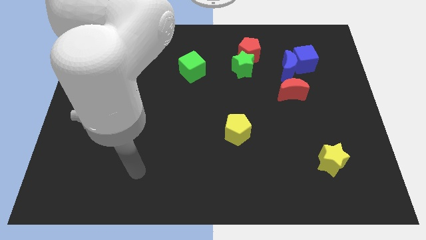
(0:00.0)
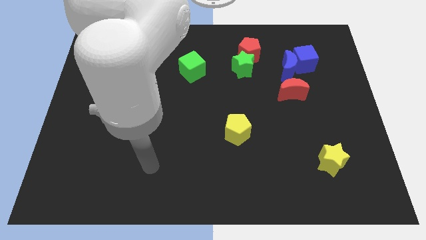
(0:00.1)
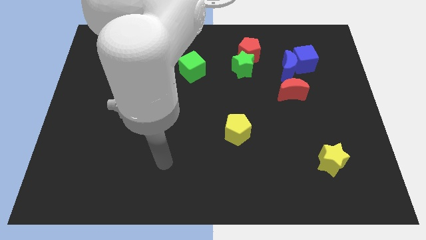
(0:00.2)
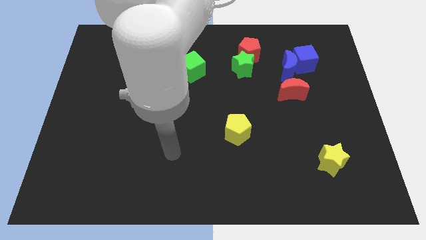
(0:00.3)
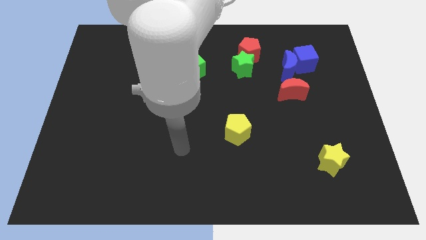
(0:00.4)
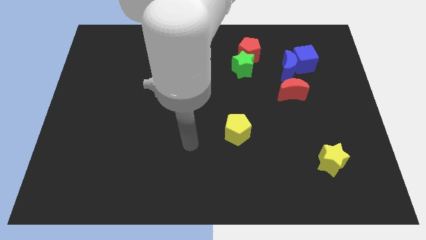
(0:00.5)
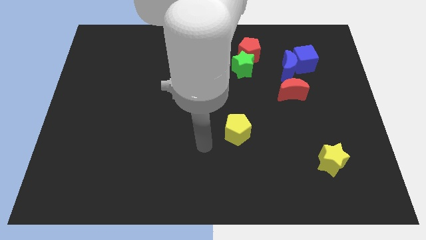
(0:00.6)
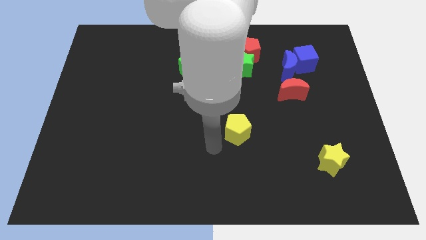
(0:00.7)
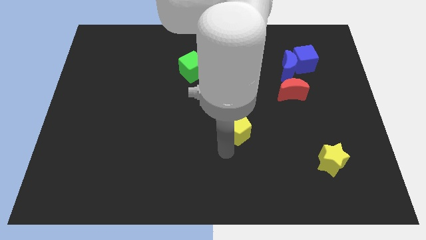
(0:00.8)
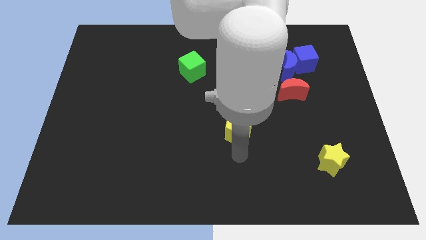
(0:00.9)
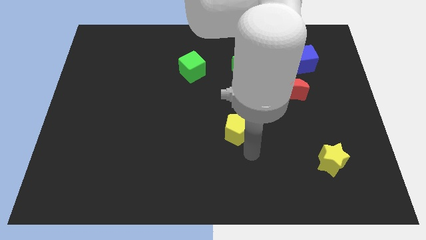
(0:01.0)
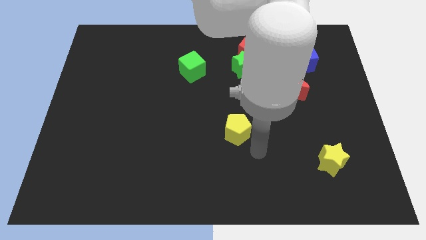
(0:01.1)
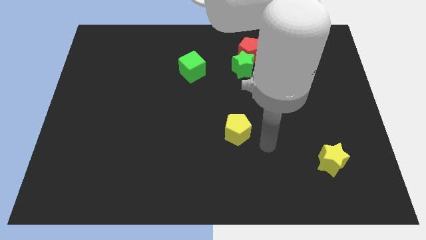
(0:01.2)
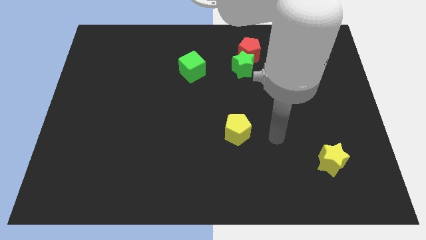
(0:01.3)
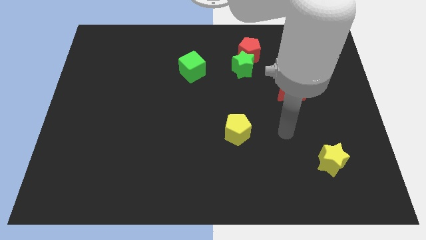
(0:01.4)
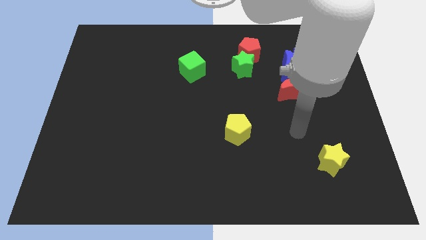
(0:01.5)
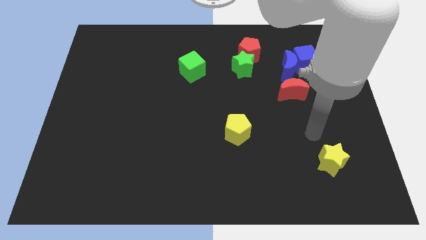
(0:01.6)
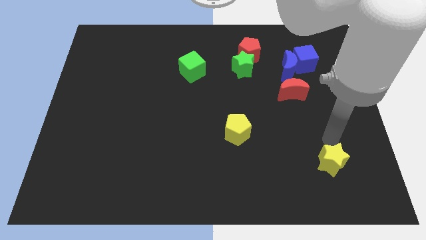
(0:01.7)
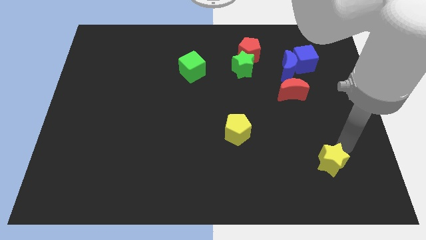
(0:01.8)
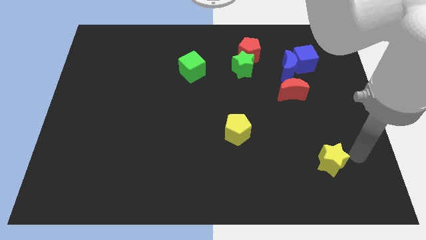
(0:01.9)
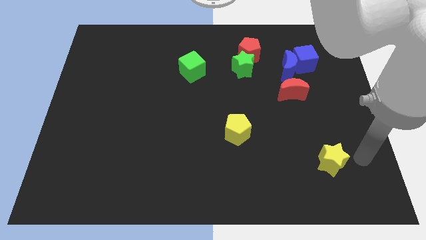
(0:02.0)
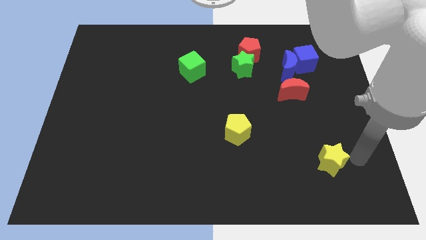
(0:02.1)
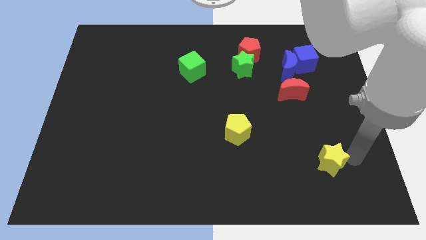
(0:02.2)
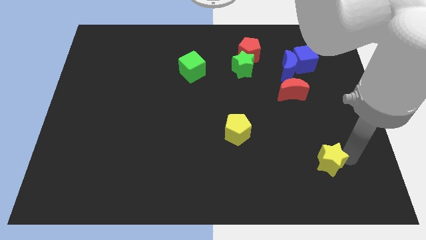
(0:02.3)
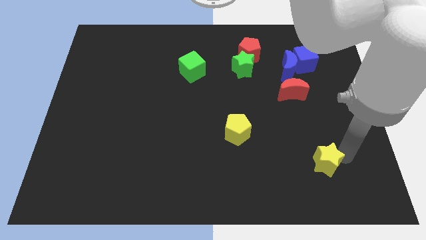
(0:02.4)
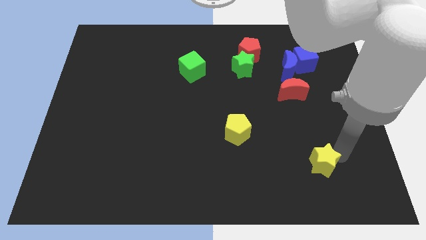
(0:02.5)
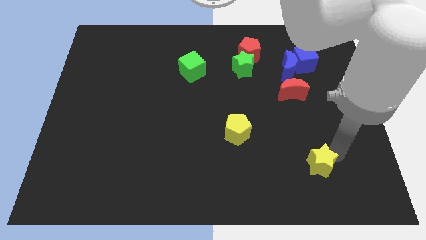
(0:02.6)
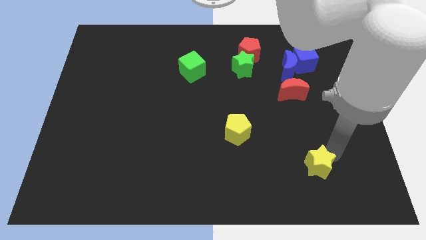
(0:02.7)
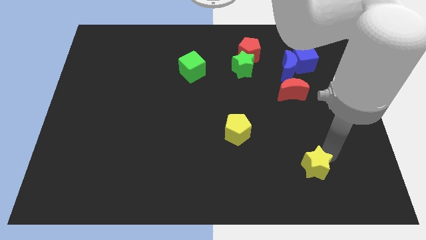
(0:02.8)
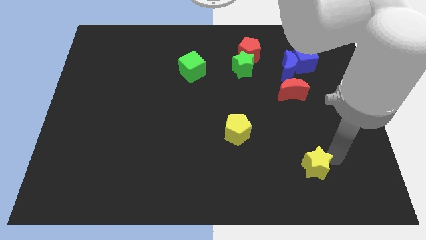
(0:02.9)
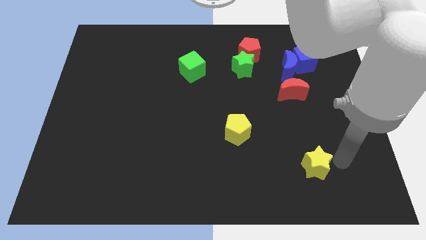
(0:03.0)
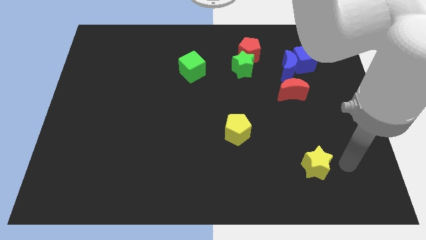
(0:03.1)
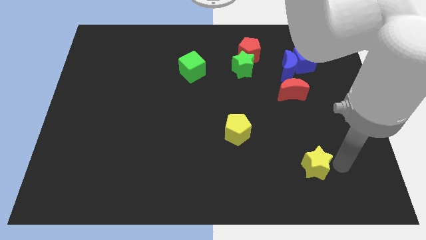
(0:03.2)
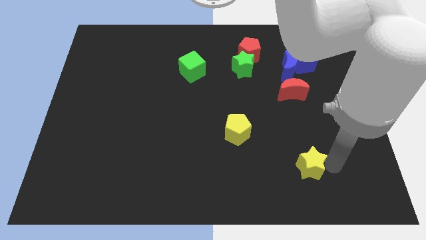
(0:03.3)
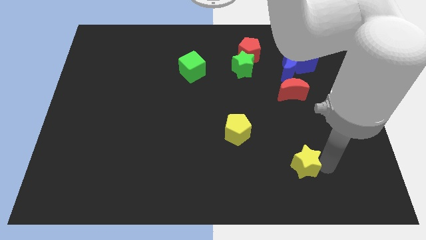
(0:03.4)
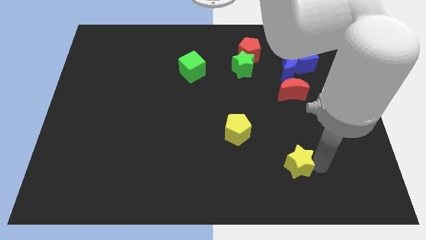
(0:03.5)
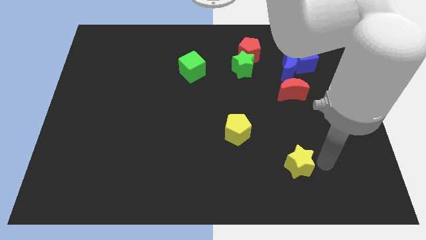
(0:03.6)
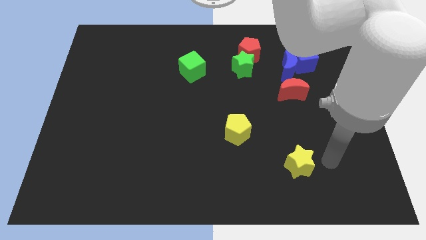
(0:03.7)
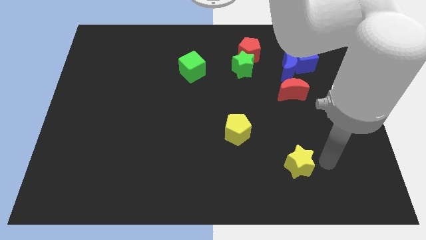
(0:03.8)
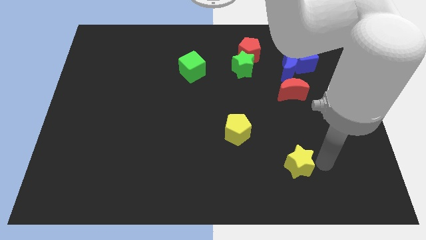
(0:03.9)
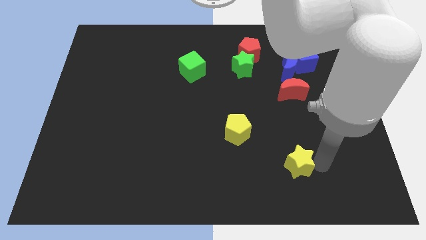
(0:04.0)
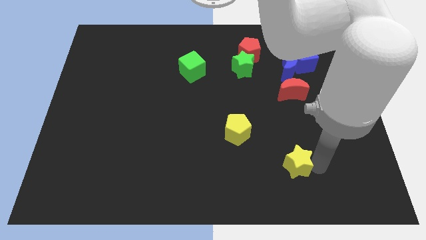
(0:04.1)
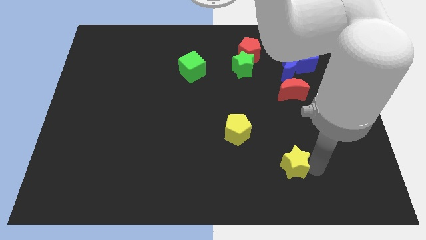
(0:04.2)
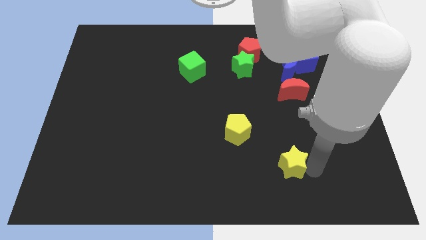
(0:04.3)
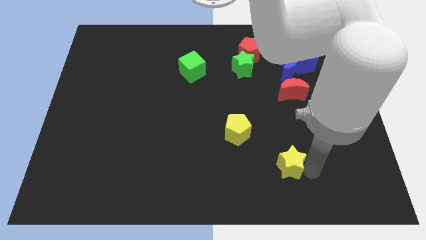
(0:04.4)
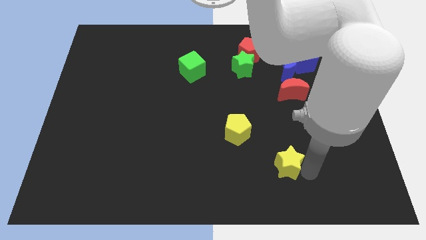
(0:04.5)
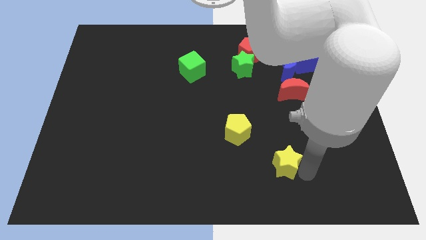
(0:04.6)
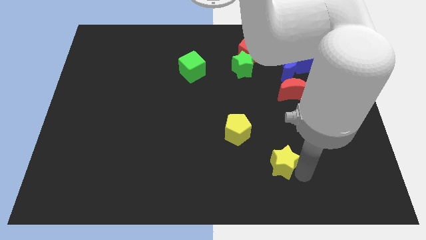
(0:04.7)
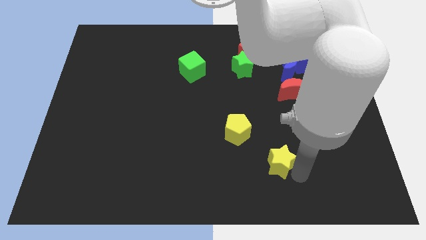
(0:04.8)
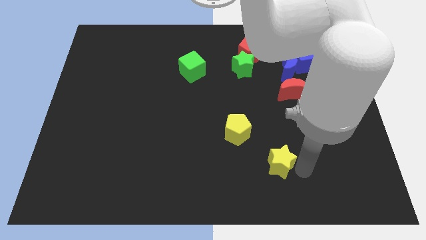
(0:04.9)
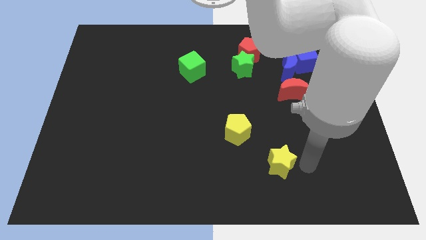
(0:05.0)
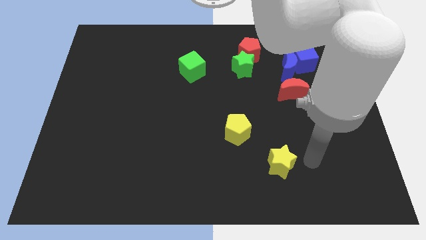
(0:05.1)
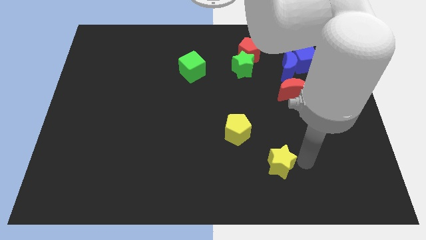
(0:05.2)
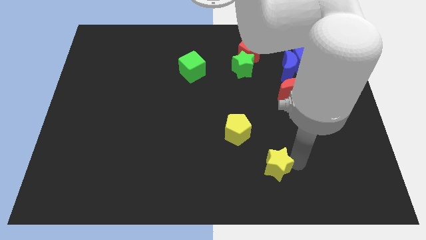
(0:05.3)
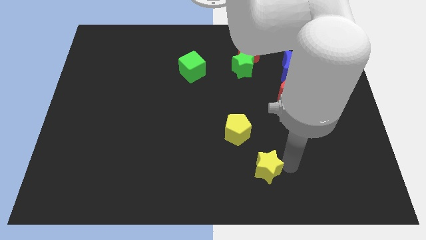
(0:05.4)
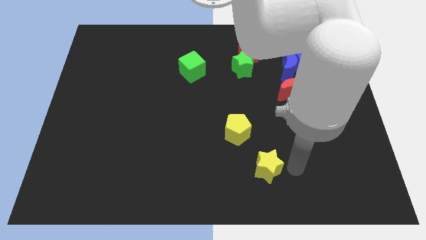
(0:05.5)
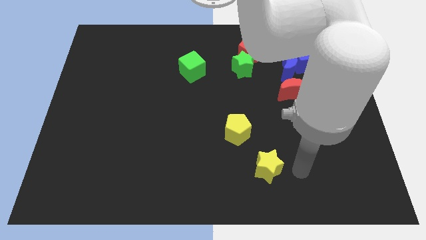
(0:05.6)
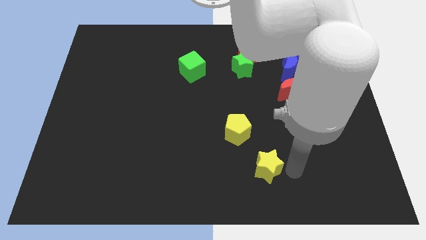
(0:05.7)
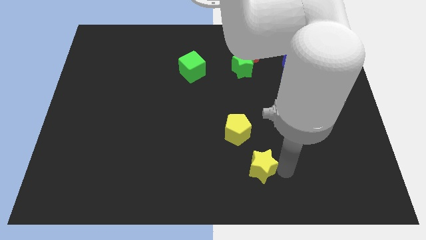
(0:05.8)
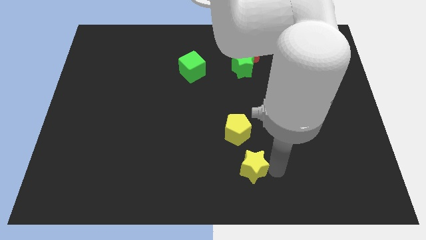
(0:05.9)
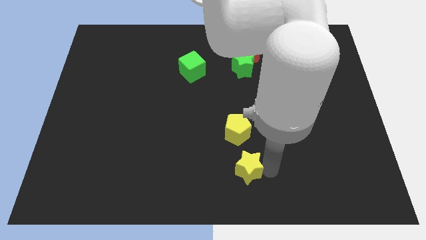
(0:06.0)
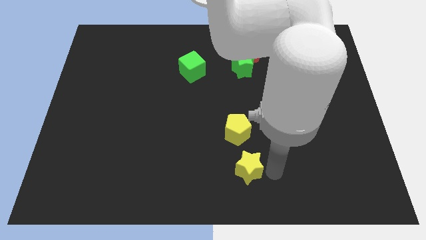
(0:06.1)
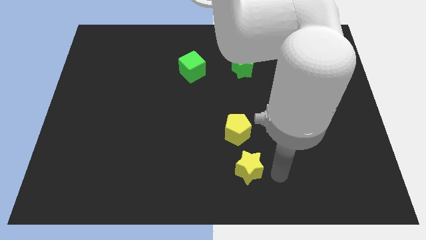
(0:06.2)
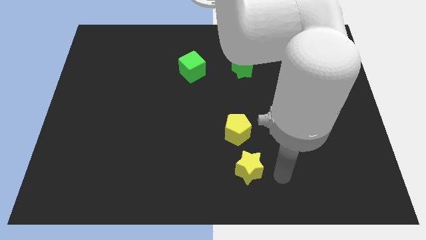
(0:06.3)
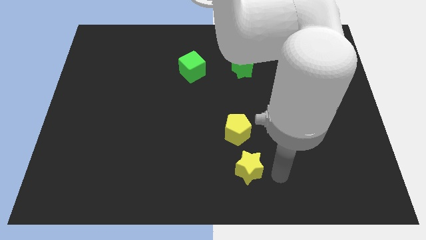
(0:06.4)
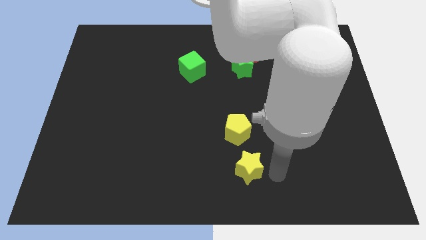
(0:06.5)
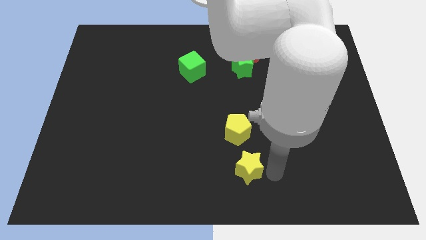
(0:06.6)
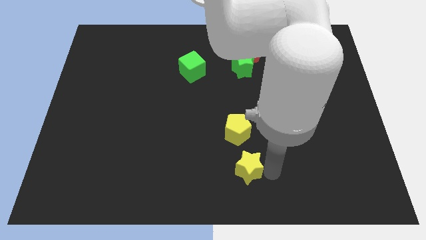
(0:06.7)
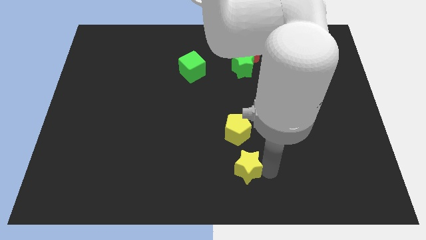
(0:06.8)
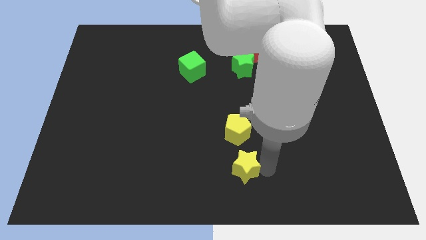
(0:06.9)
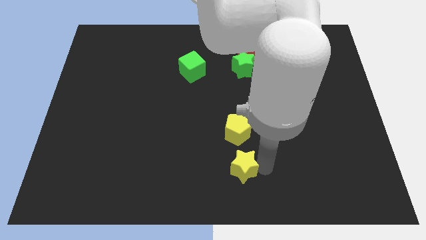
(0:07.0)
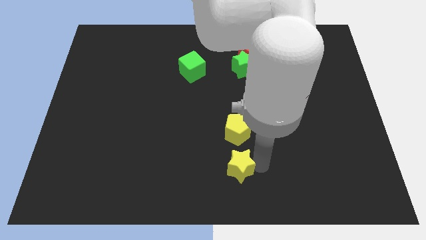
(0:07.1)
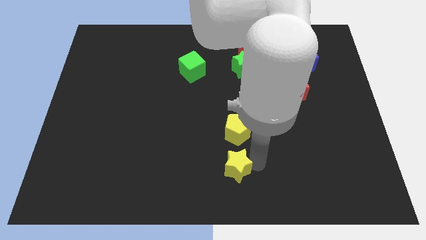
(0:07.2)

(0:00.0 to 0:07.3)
move the yellow star left

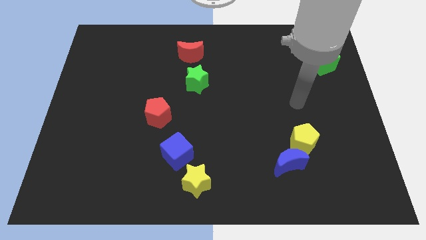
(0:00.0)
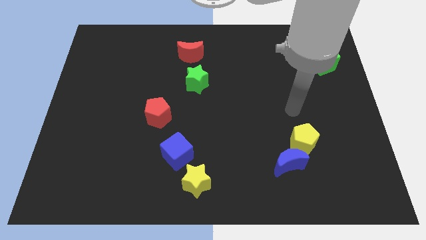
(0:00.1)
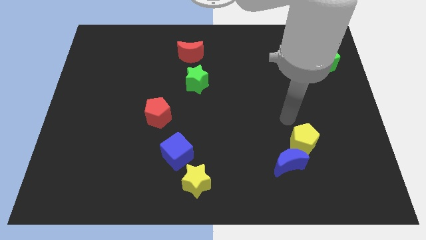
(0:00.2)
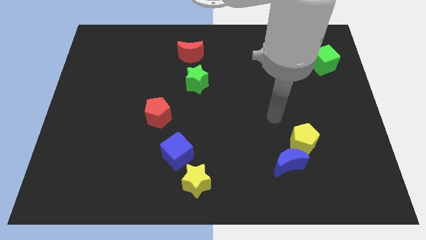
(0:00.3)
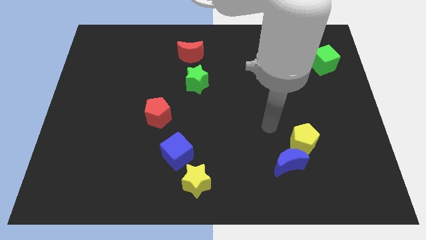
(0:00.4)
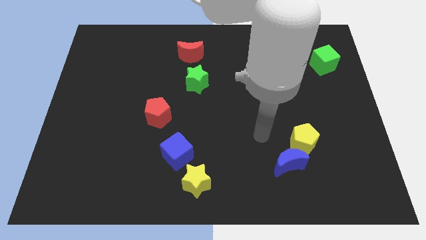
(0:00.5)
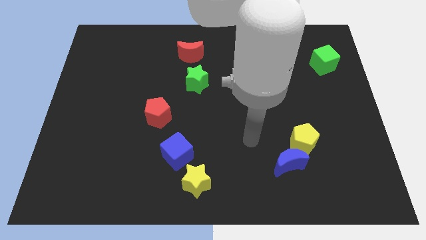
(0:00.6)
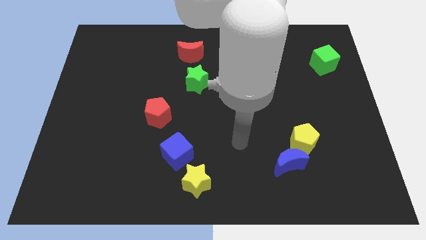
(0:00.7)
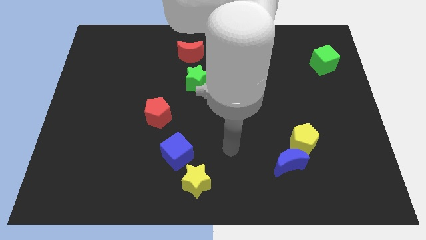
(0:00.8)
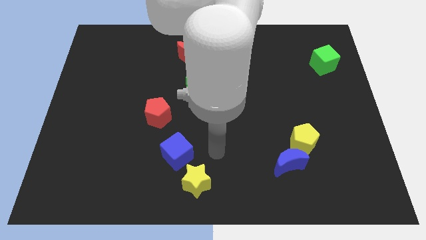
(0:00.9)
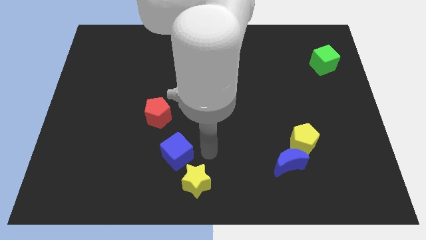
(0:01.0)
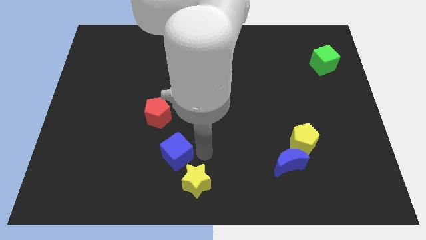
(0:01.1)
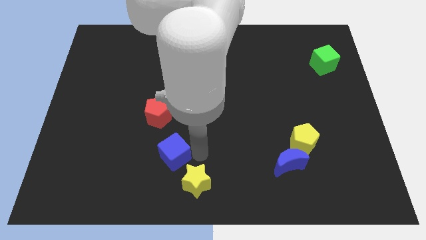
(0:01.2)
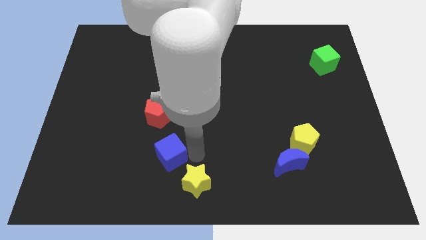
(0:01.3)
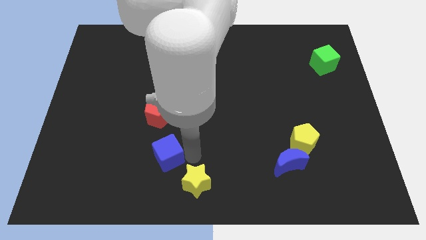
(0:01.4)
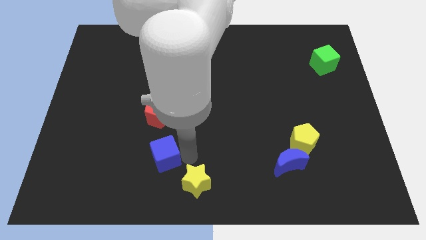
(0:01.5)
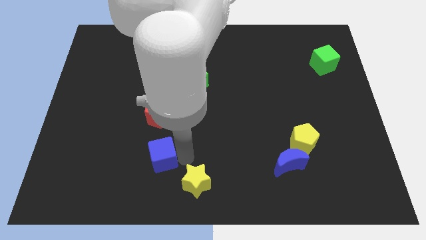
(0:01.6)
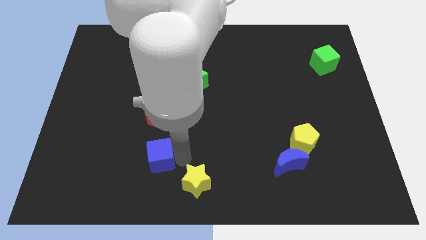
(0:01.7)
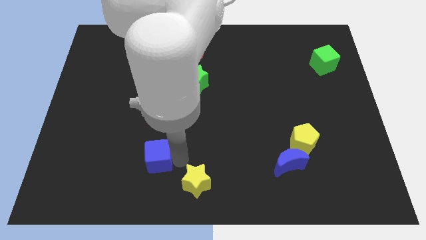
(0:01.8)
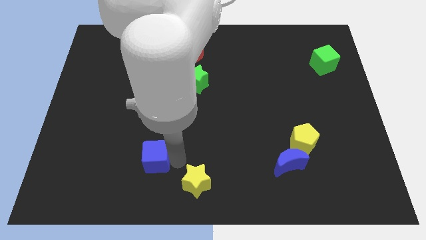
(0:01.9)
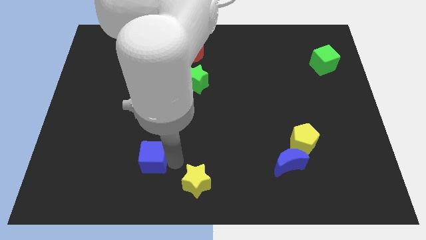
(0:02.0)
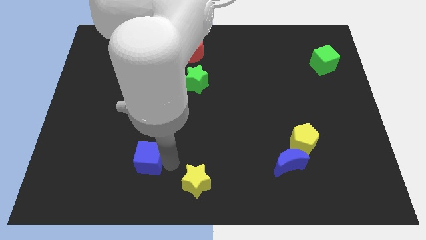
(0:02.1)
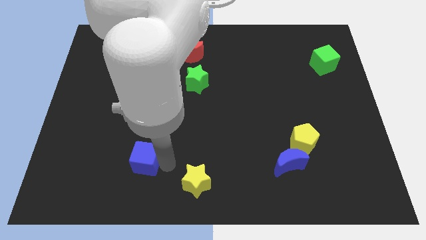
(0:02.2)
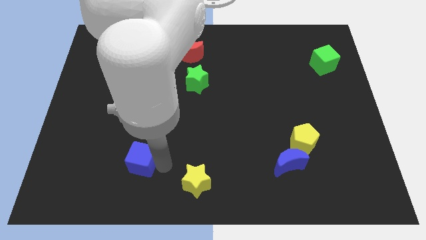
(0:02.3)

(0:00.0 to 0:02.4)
slide the blue cube somewhat to the left
